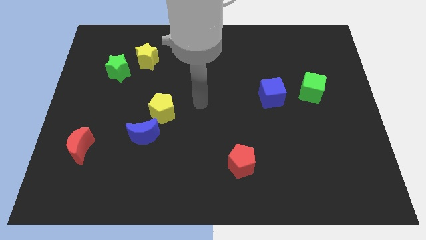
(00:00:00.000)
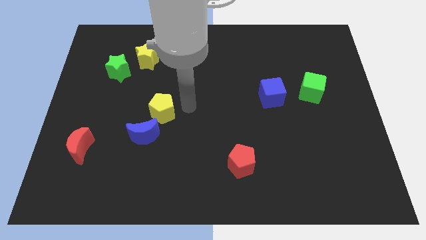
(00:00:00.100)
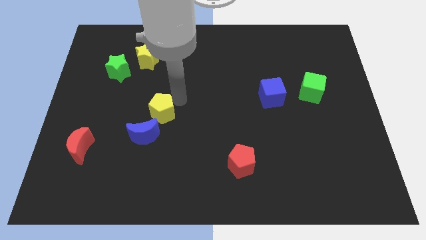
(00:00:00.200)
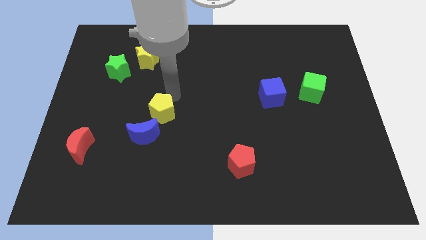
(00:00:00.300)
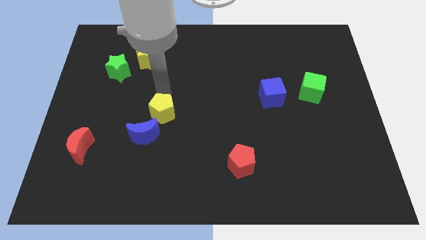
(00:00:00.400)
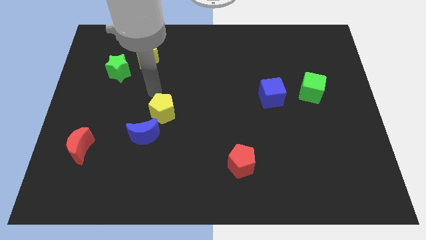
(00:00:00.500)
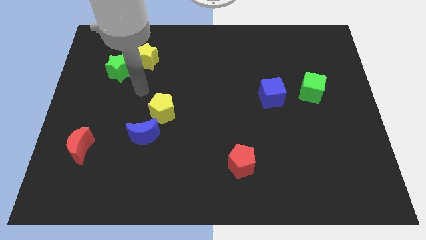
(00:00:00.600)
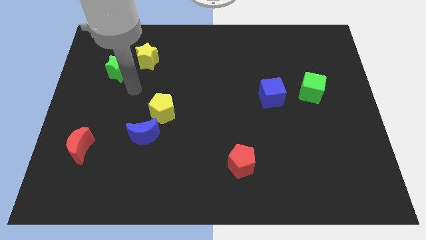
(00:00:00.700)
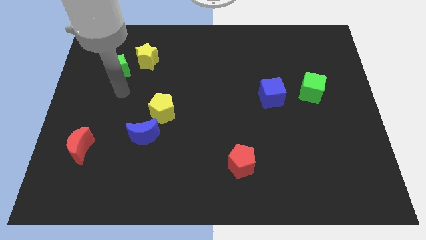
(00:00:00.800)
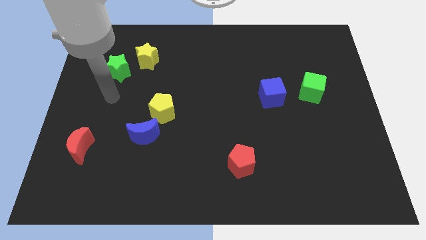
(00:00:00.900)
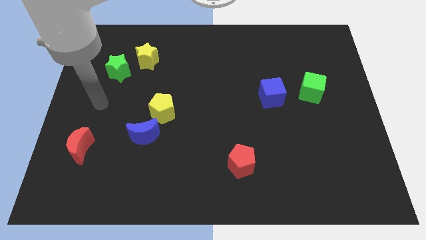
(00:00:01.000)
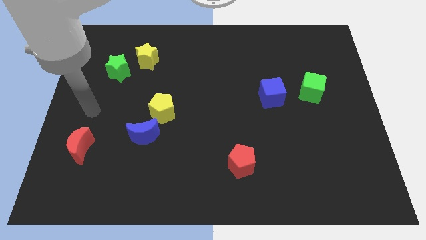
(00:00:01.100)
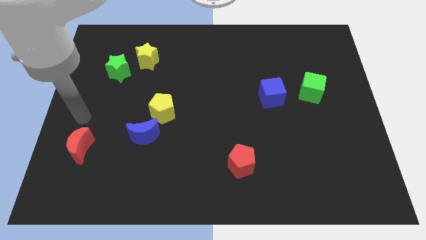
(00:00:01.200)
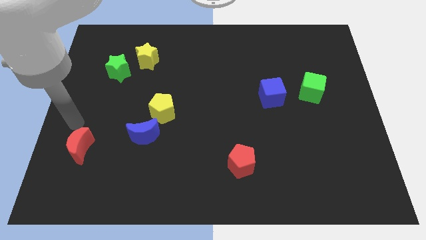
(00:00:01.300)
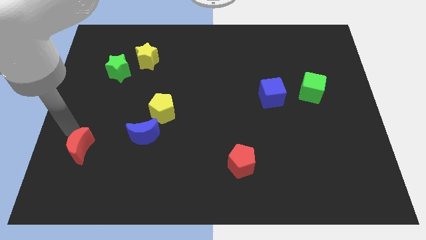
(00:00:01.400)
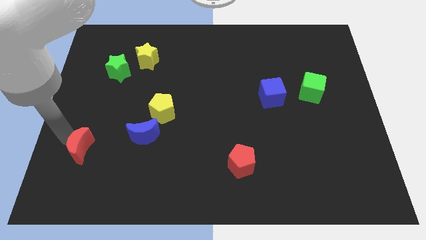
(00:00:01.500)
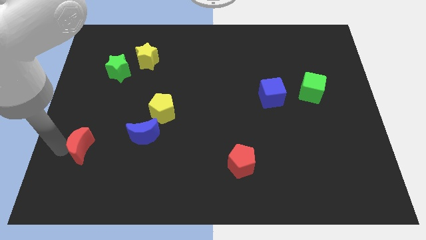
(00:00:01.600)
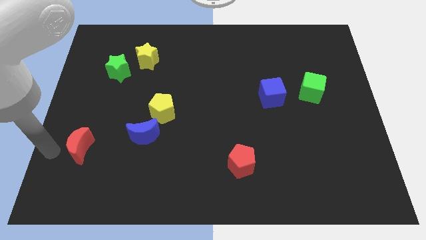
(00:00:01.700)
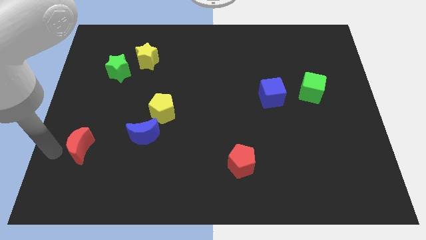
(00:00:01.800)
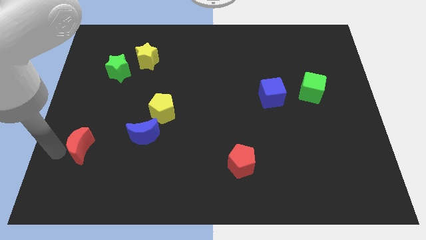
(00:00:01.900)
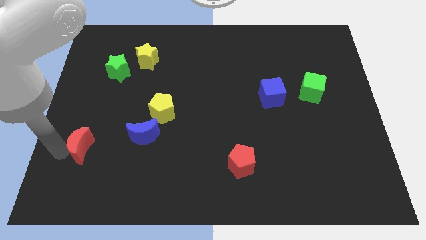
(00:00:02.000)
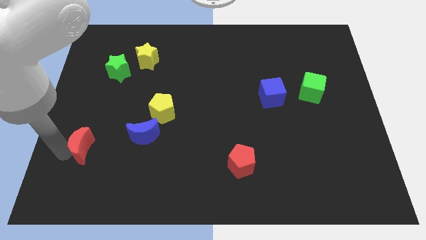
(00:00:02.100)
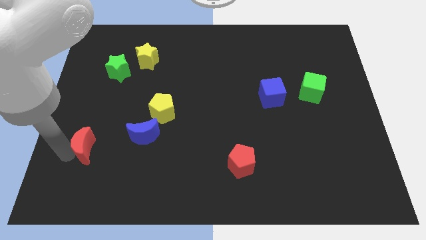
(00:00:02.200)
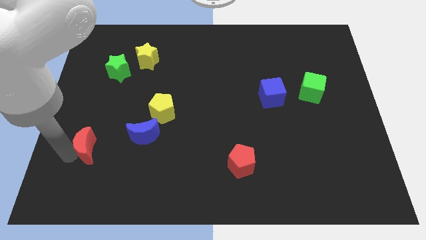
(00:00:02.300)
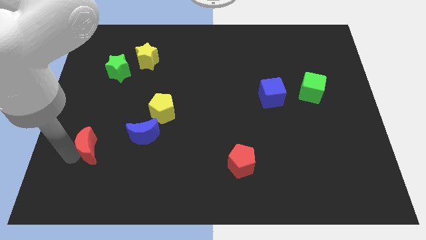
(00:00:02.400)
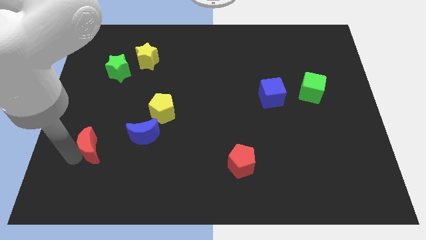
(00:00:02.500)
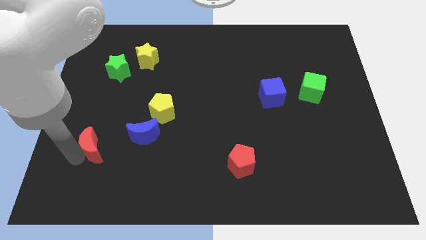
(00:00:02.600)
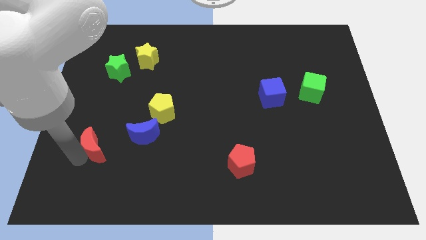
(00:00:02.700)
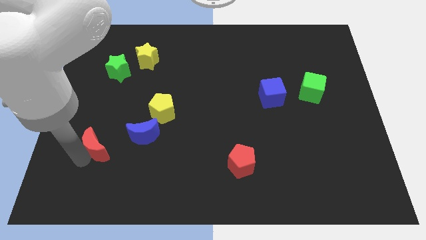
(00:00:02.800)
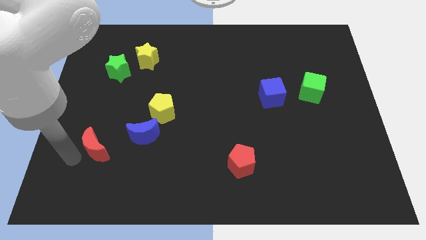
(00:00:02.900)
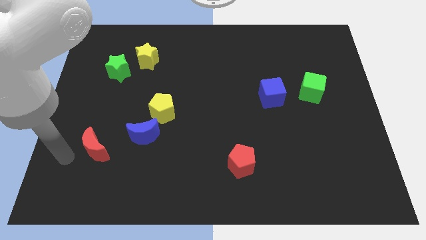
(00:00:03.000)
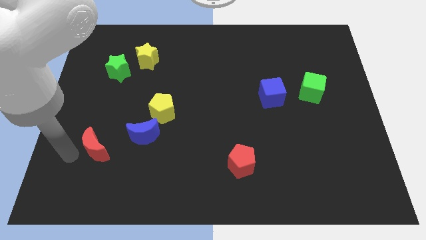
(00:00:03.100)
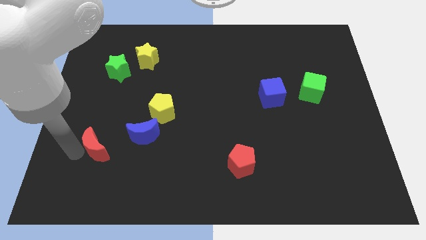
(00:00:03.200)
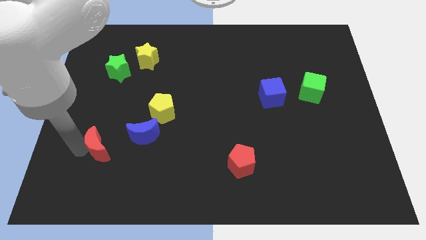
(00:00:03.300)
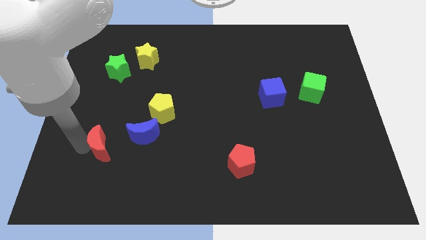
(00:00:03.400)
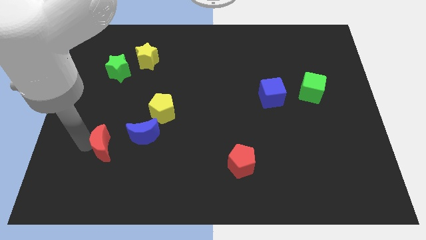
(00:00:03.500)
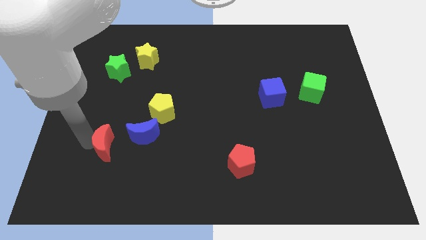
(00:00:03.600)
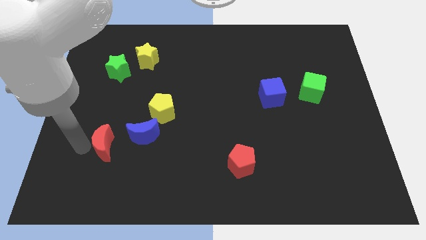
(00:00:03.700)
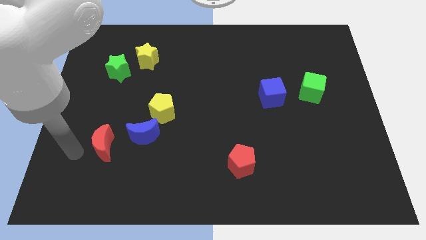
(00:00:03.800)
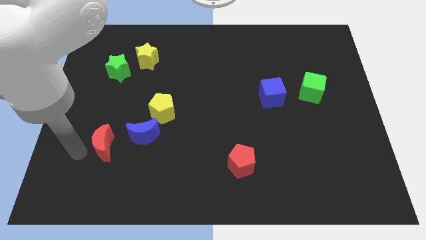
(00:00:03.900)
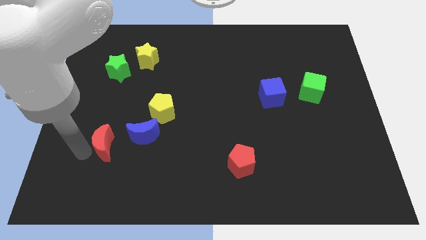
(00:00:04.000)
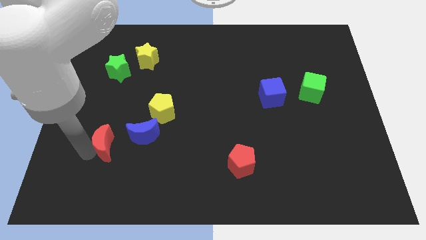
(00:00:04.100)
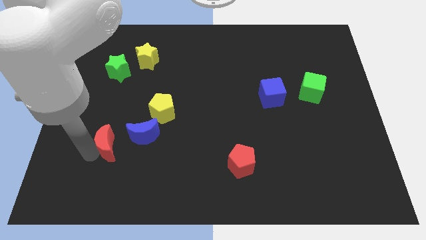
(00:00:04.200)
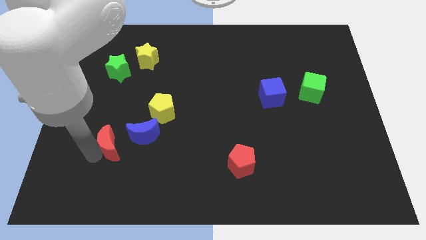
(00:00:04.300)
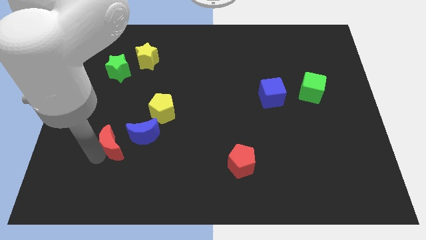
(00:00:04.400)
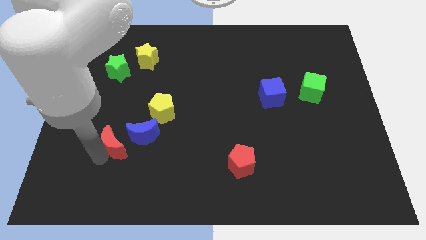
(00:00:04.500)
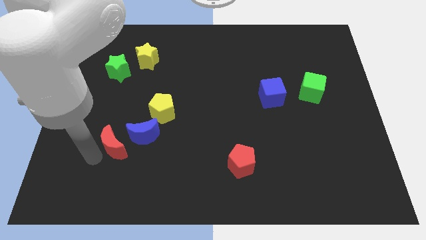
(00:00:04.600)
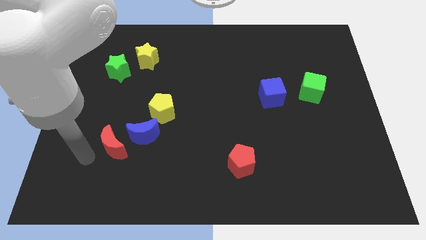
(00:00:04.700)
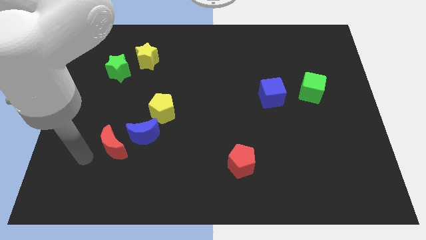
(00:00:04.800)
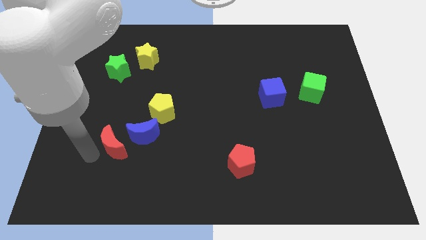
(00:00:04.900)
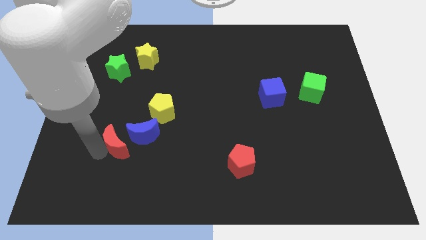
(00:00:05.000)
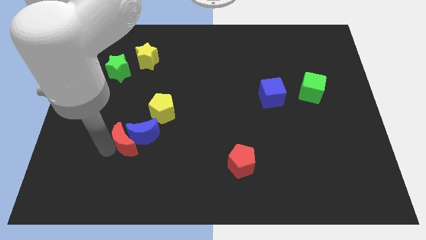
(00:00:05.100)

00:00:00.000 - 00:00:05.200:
push the red moon towards the blue moon

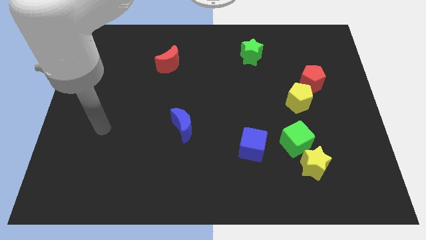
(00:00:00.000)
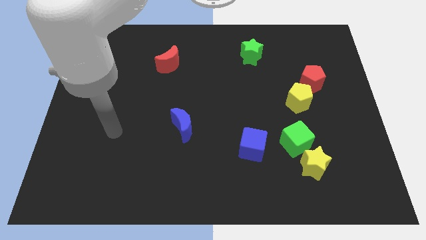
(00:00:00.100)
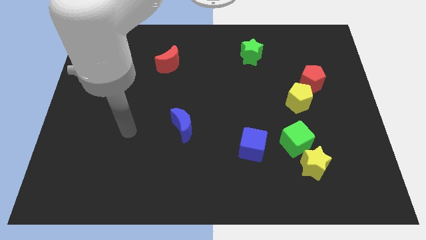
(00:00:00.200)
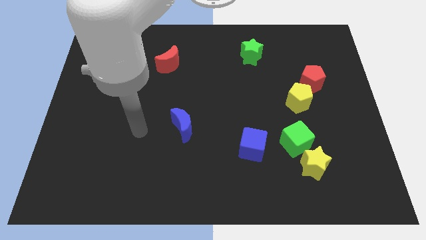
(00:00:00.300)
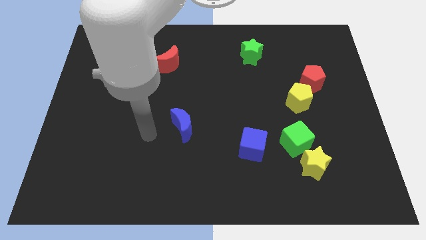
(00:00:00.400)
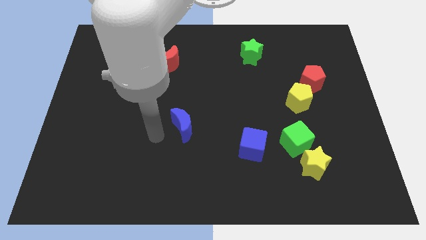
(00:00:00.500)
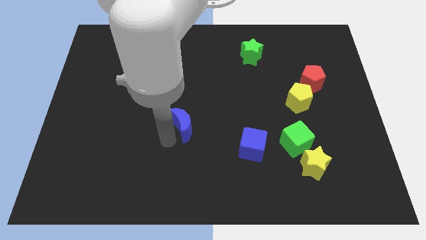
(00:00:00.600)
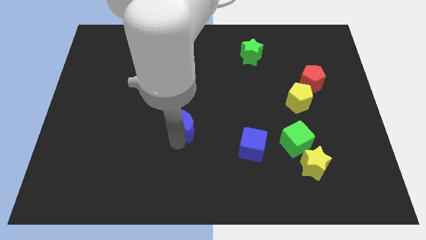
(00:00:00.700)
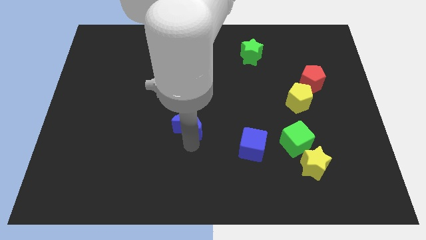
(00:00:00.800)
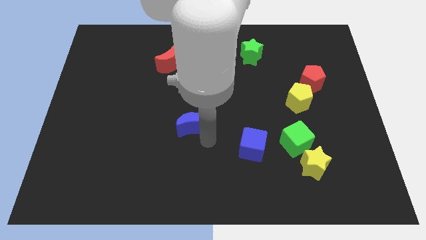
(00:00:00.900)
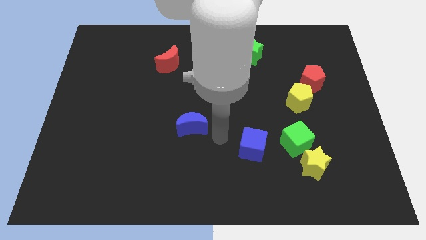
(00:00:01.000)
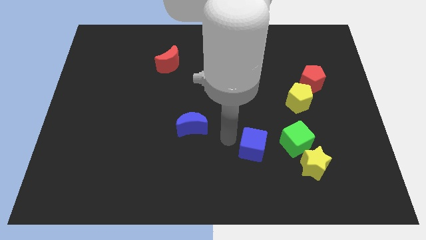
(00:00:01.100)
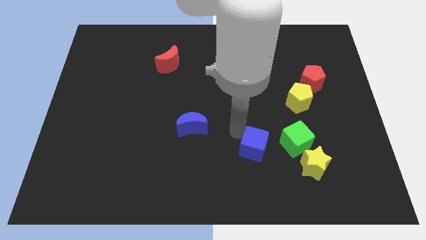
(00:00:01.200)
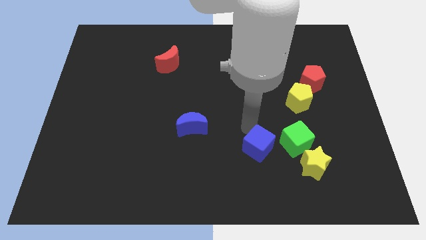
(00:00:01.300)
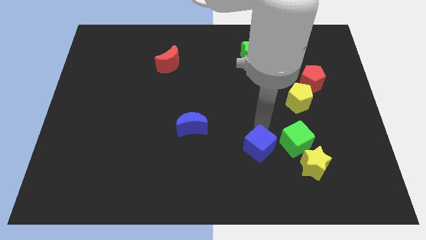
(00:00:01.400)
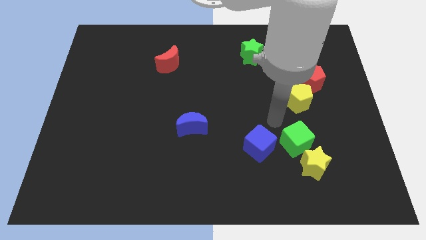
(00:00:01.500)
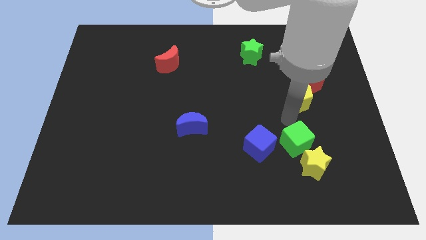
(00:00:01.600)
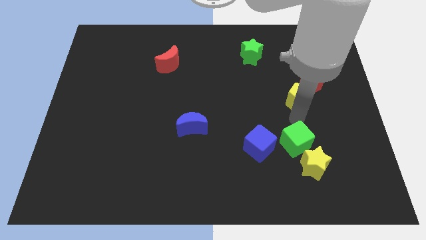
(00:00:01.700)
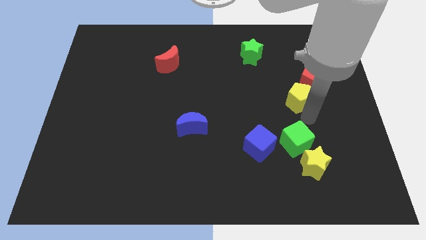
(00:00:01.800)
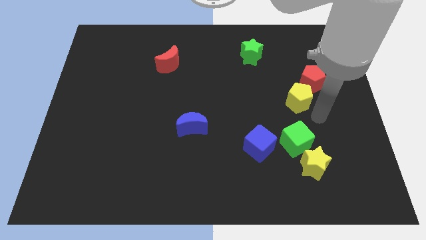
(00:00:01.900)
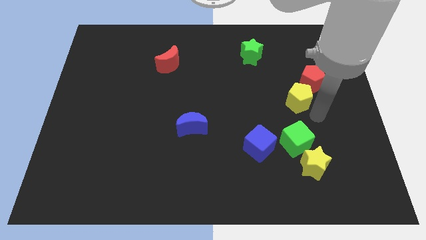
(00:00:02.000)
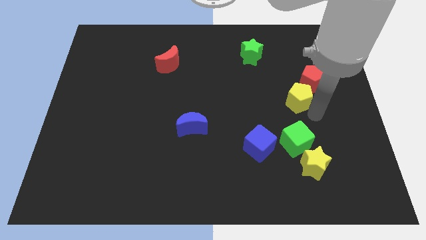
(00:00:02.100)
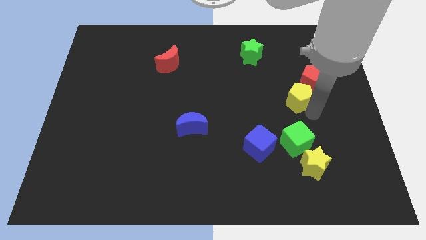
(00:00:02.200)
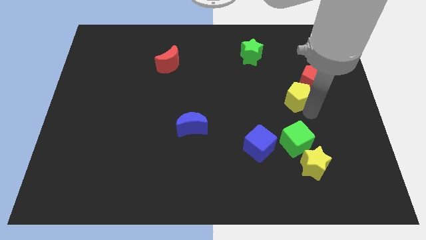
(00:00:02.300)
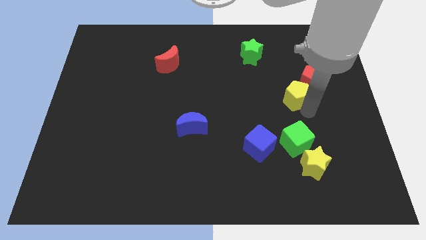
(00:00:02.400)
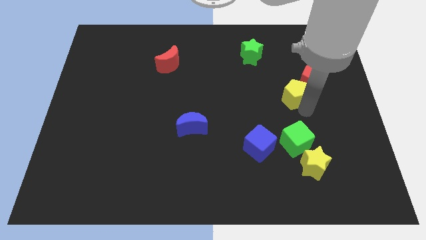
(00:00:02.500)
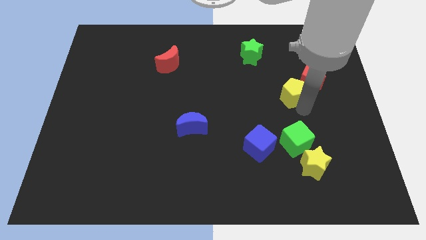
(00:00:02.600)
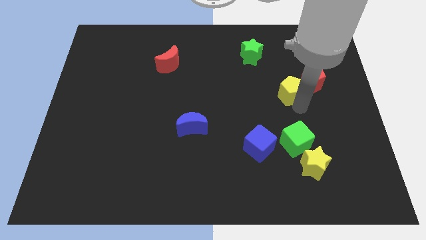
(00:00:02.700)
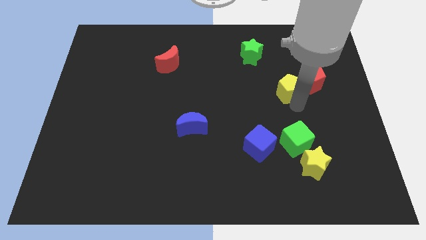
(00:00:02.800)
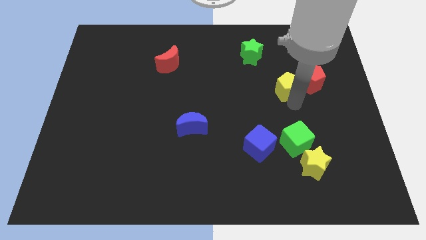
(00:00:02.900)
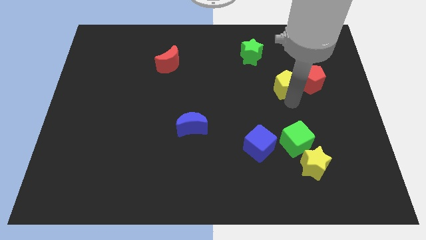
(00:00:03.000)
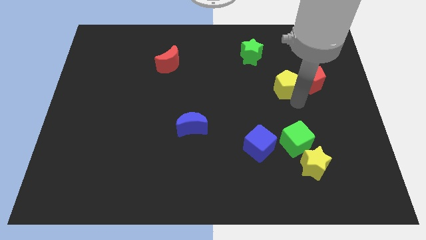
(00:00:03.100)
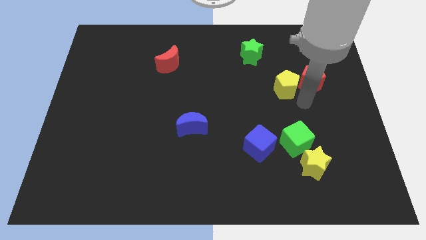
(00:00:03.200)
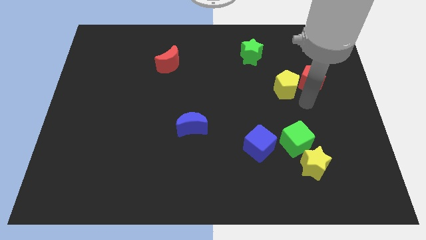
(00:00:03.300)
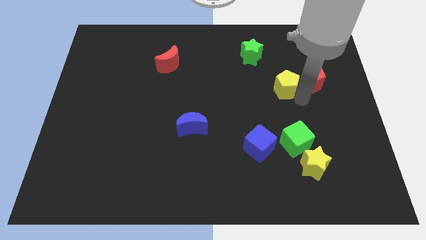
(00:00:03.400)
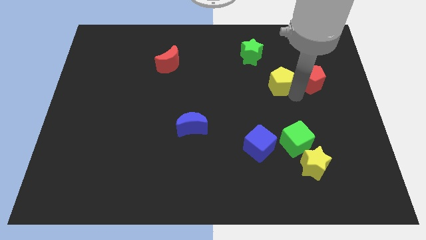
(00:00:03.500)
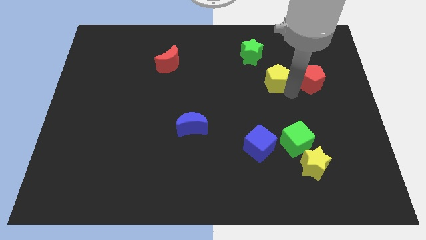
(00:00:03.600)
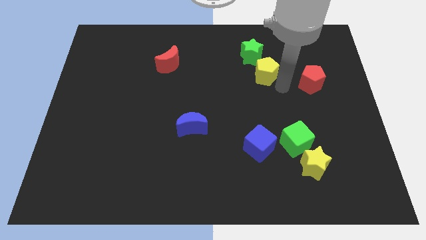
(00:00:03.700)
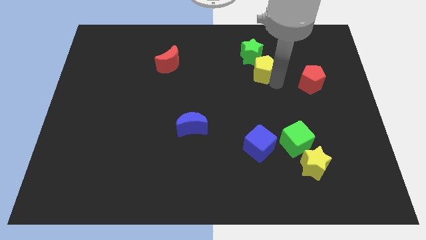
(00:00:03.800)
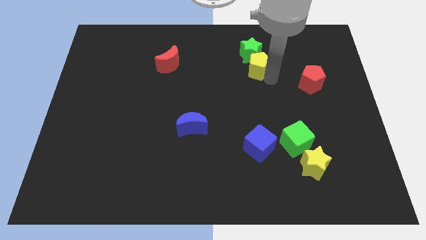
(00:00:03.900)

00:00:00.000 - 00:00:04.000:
slide the yellow pentagon to the green star
